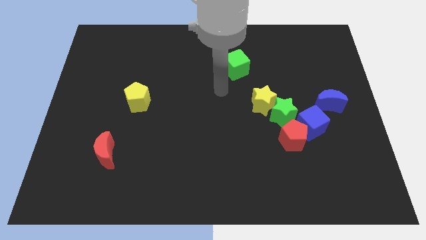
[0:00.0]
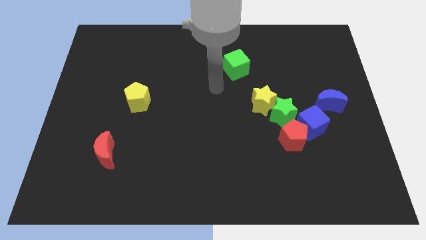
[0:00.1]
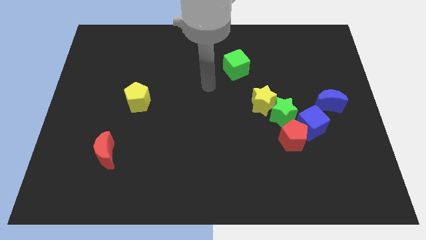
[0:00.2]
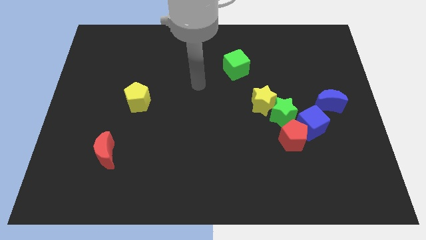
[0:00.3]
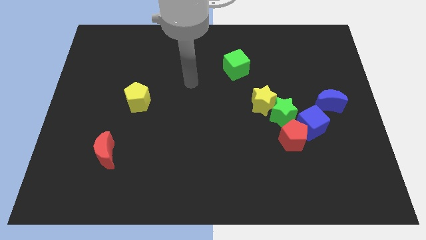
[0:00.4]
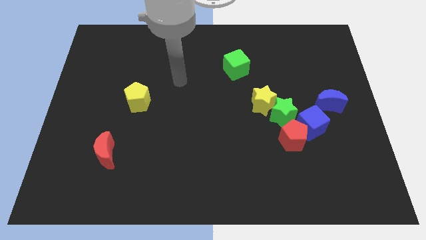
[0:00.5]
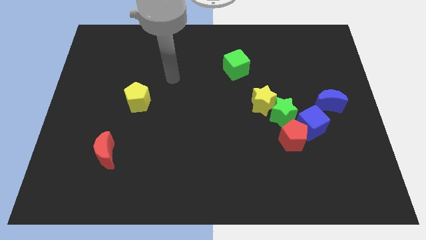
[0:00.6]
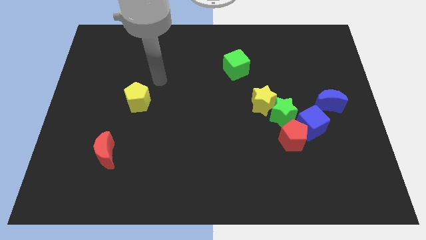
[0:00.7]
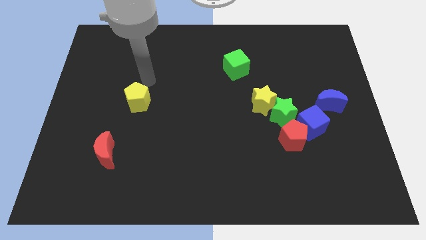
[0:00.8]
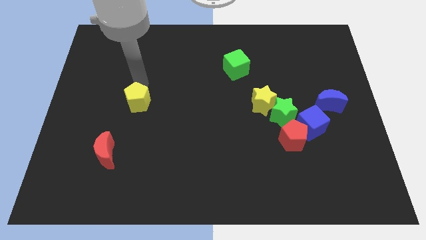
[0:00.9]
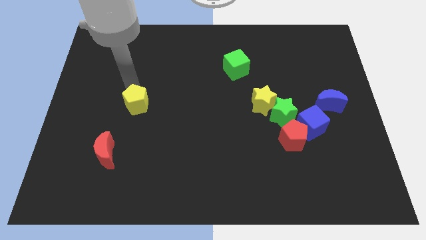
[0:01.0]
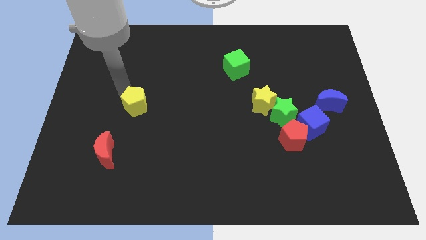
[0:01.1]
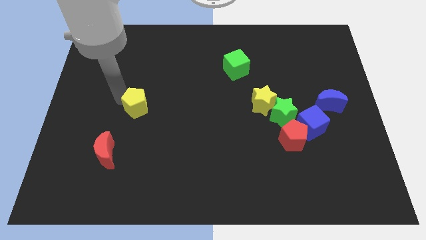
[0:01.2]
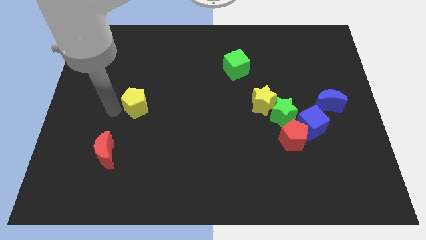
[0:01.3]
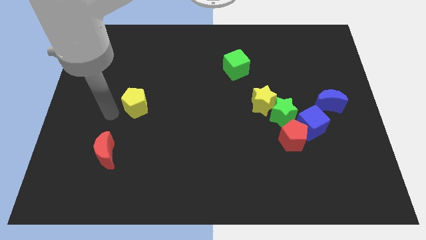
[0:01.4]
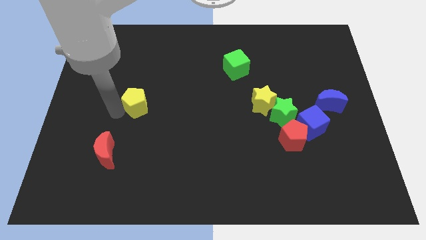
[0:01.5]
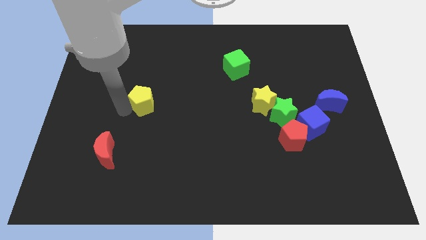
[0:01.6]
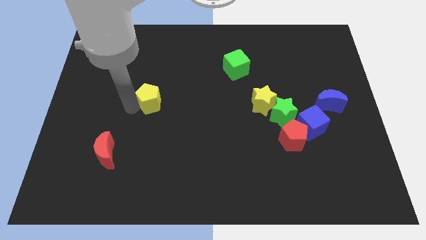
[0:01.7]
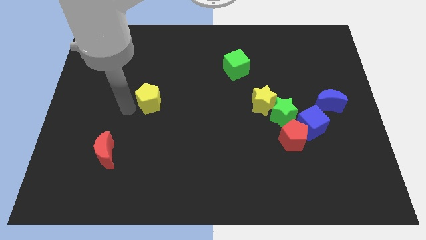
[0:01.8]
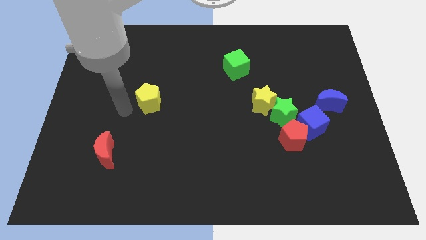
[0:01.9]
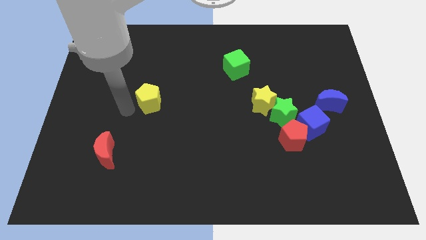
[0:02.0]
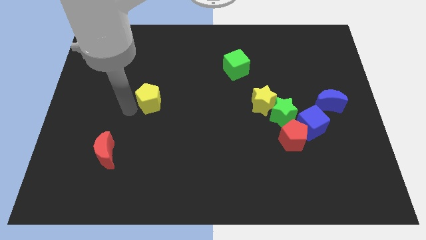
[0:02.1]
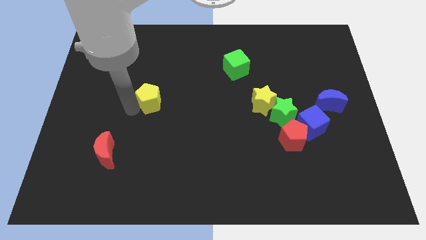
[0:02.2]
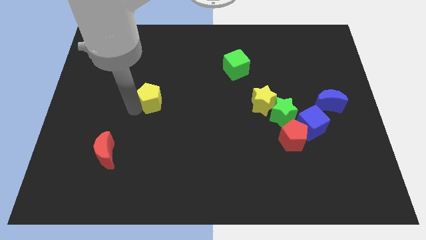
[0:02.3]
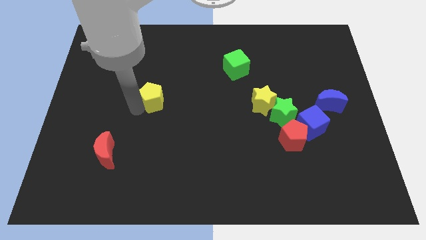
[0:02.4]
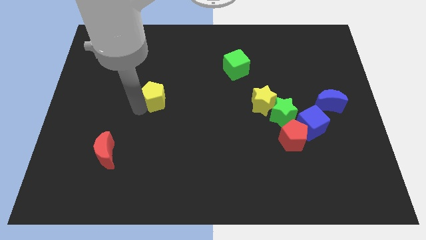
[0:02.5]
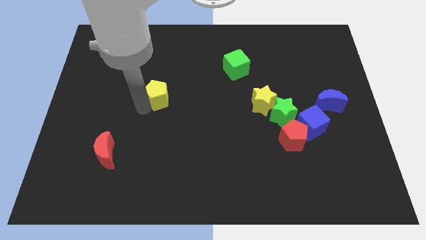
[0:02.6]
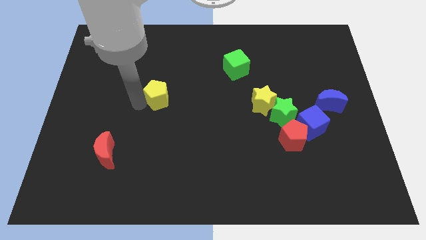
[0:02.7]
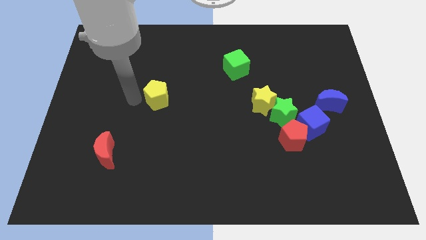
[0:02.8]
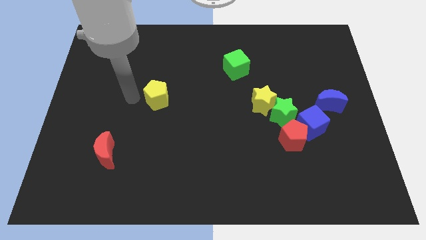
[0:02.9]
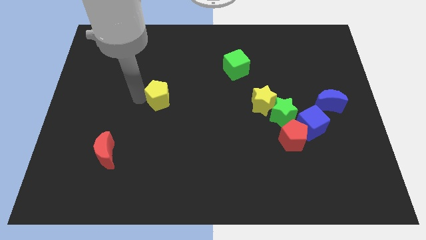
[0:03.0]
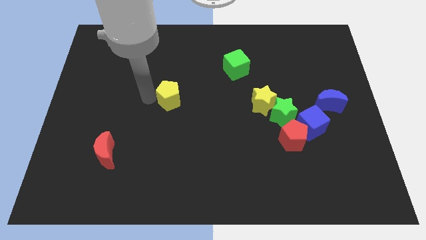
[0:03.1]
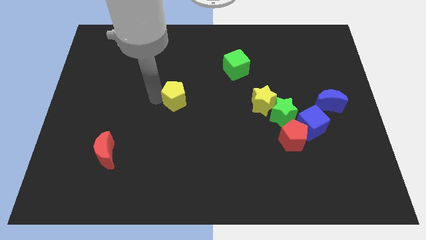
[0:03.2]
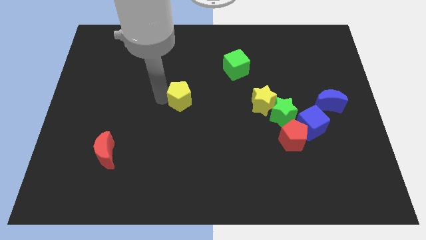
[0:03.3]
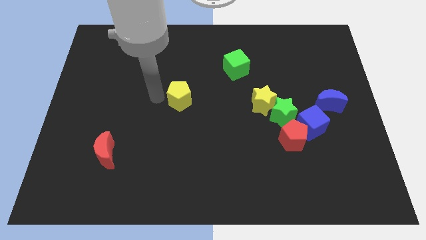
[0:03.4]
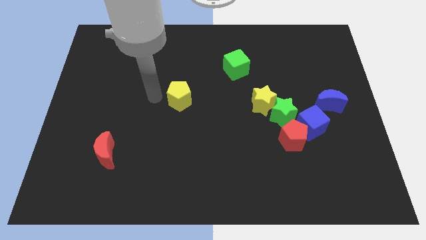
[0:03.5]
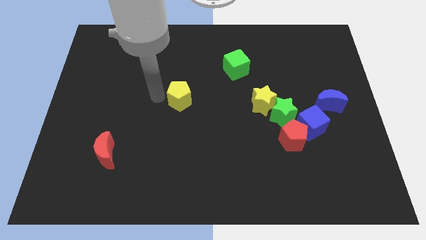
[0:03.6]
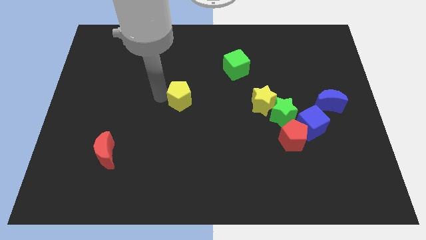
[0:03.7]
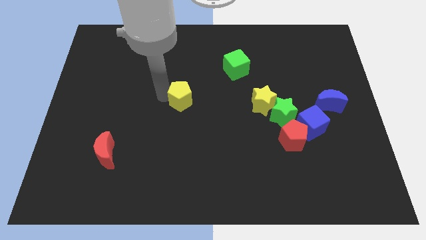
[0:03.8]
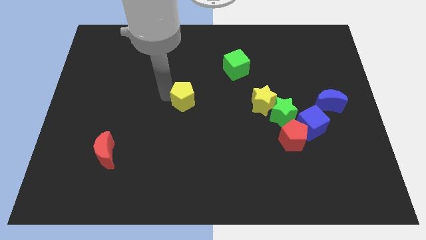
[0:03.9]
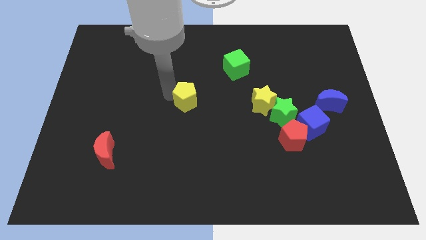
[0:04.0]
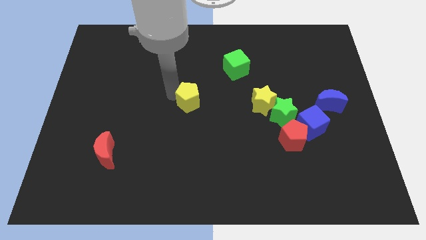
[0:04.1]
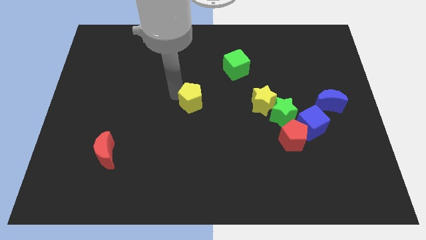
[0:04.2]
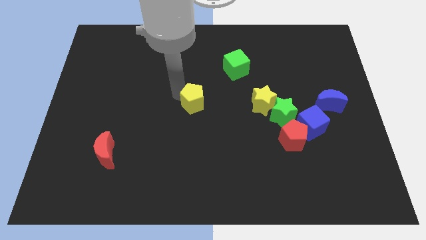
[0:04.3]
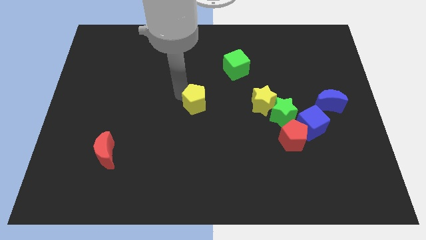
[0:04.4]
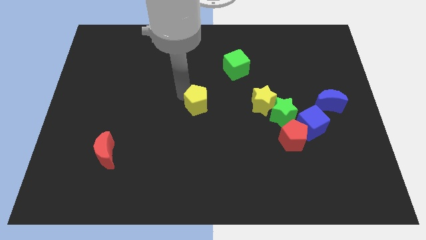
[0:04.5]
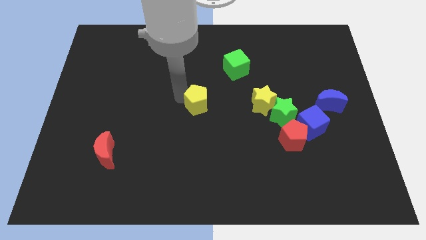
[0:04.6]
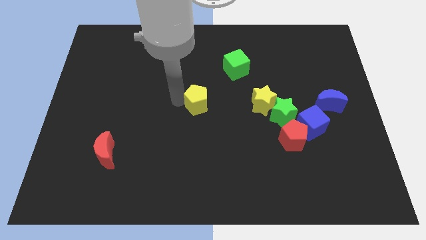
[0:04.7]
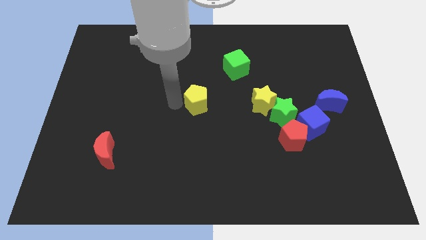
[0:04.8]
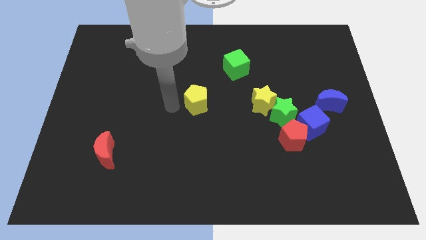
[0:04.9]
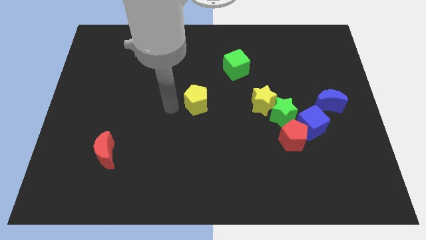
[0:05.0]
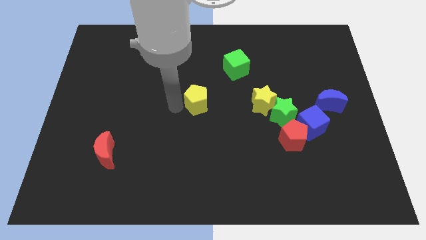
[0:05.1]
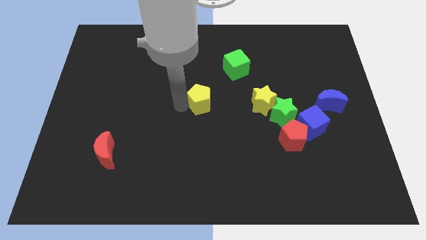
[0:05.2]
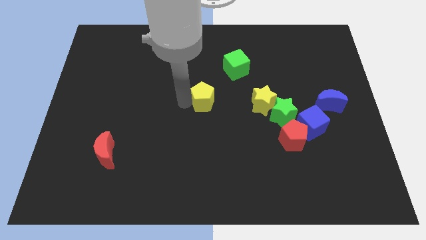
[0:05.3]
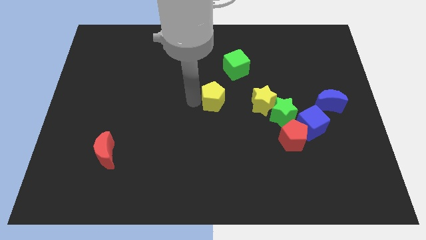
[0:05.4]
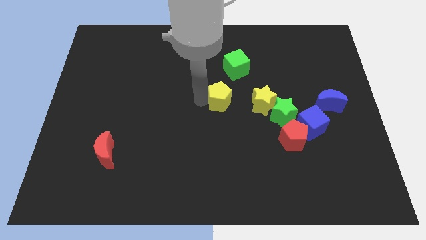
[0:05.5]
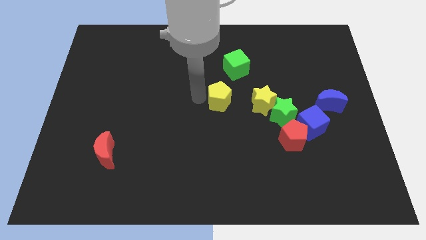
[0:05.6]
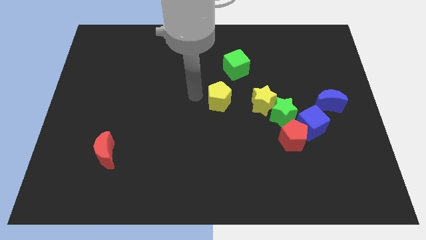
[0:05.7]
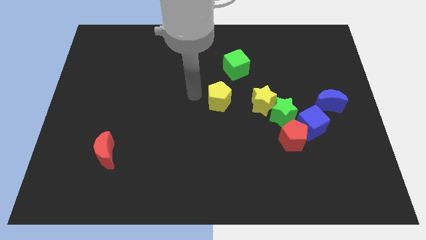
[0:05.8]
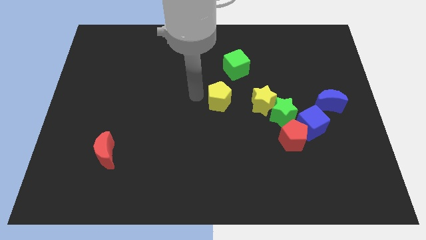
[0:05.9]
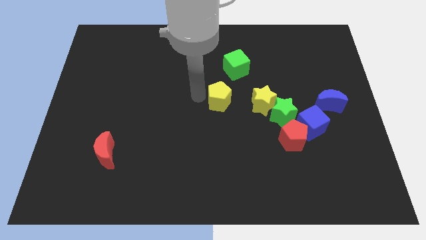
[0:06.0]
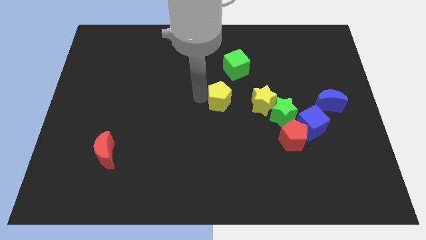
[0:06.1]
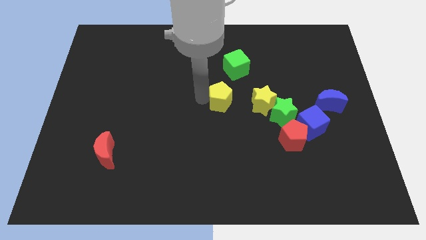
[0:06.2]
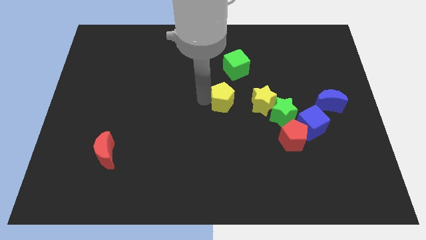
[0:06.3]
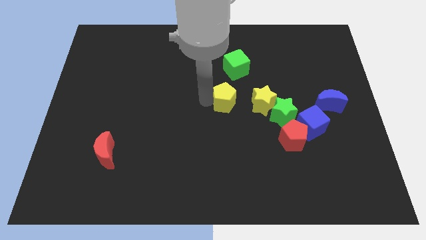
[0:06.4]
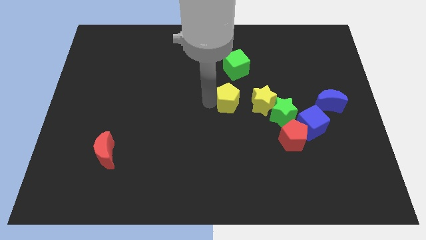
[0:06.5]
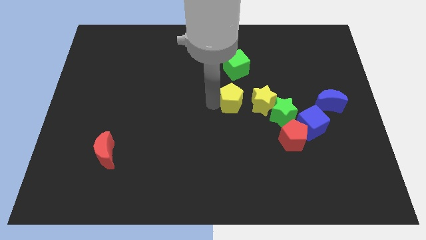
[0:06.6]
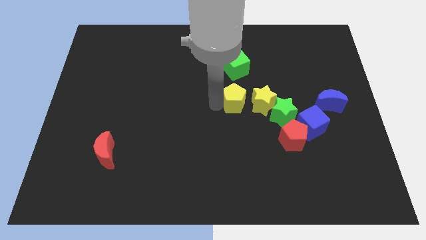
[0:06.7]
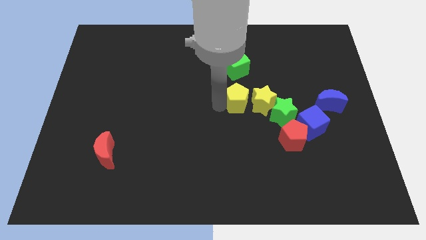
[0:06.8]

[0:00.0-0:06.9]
put the yellow pentagon towards the yellow star
